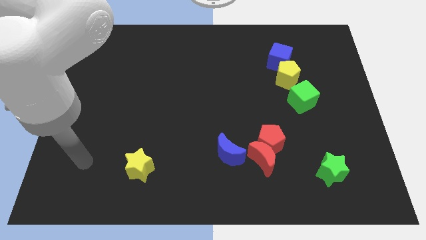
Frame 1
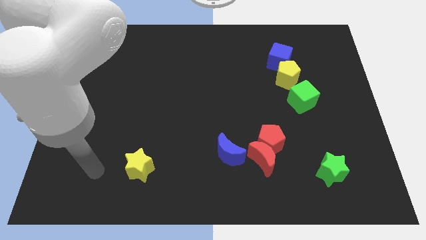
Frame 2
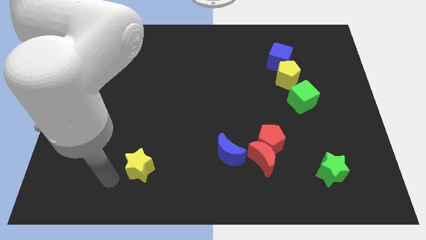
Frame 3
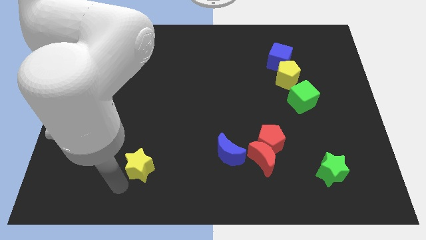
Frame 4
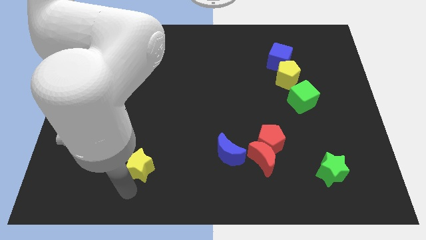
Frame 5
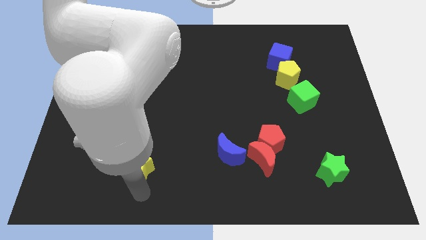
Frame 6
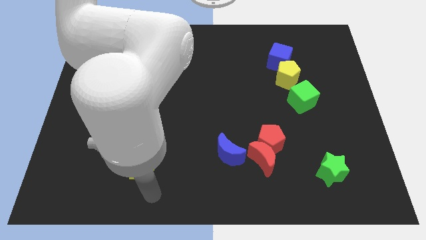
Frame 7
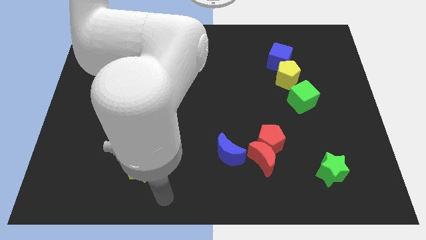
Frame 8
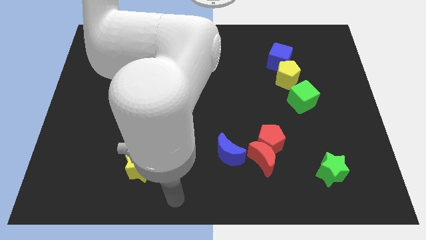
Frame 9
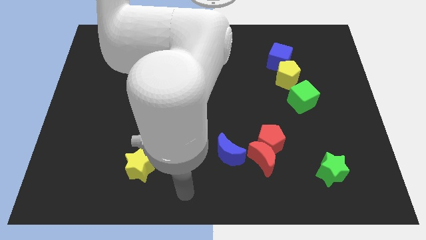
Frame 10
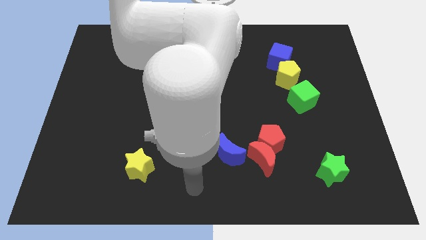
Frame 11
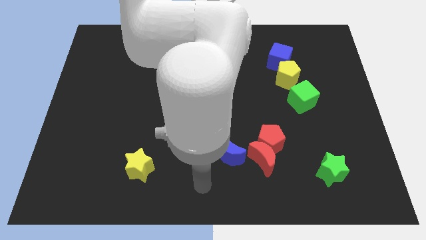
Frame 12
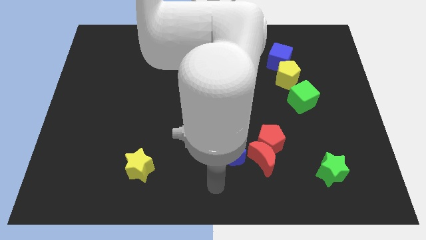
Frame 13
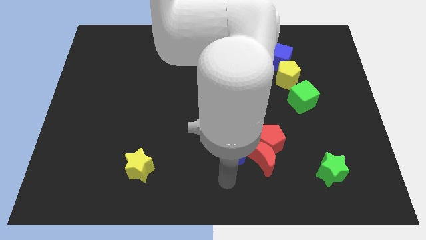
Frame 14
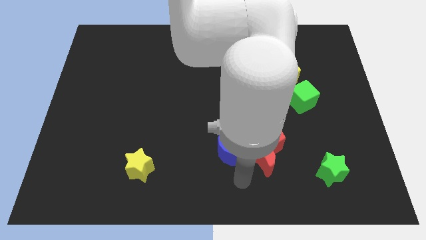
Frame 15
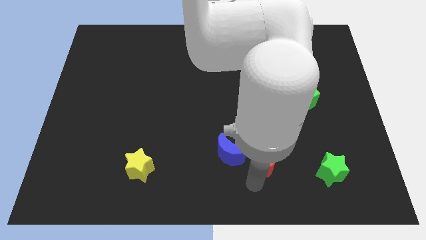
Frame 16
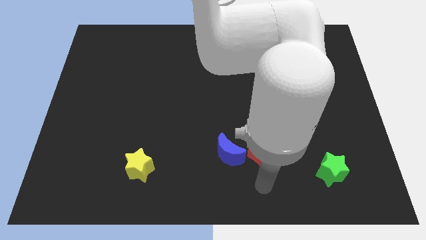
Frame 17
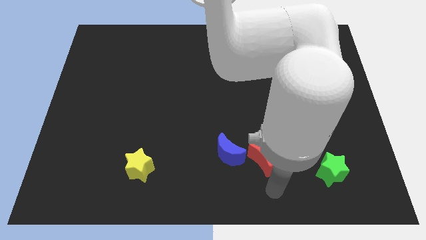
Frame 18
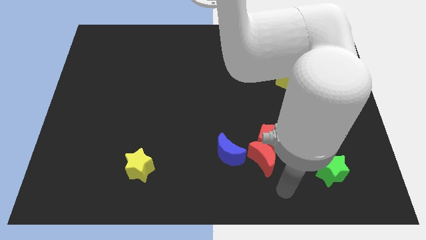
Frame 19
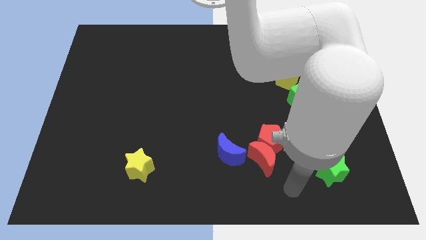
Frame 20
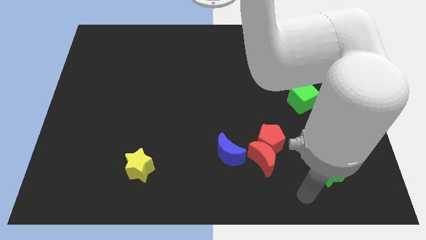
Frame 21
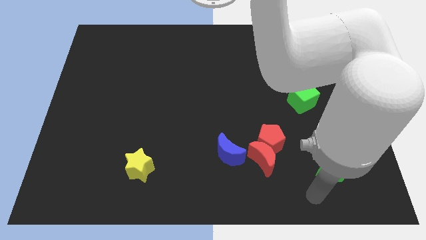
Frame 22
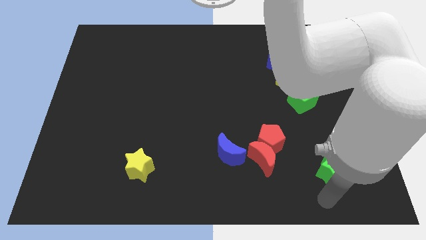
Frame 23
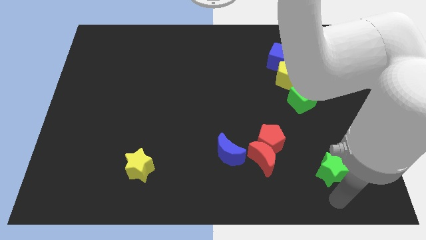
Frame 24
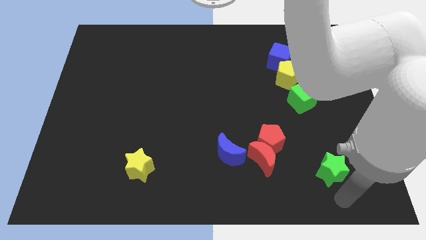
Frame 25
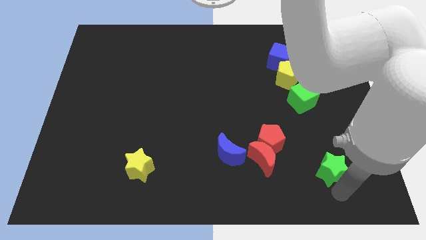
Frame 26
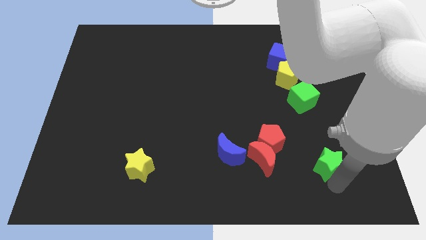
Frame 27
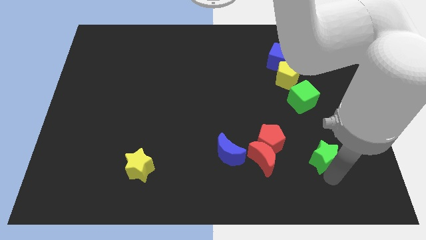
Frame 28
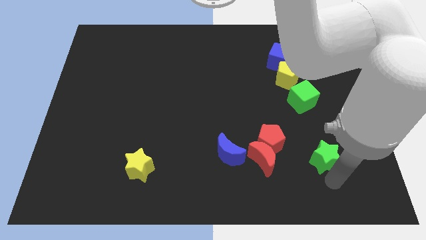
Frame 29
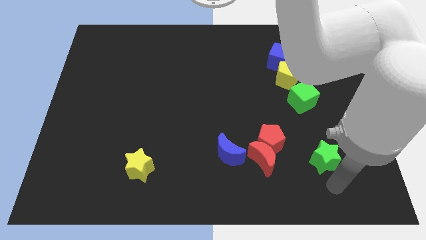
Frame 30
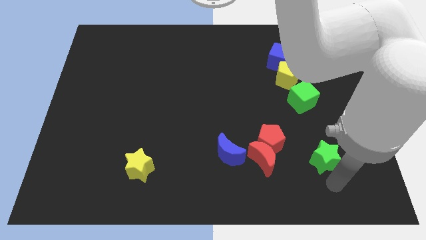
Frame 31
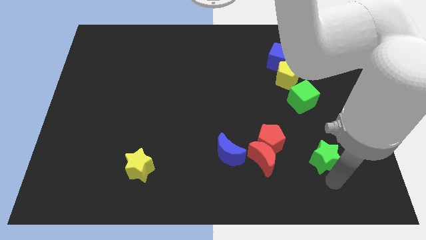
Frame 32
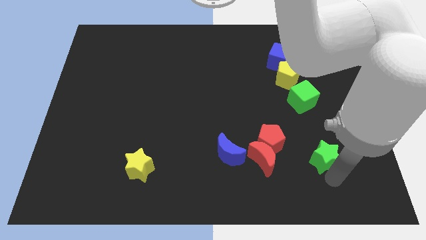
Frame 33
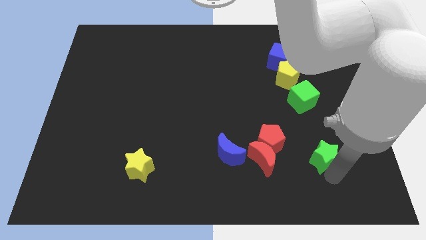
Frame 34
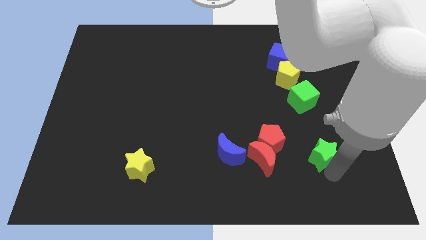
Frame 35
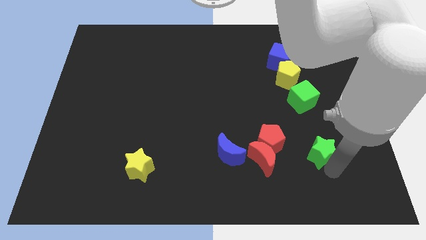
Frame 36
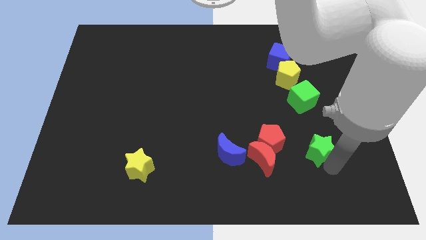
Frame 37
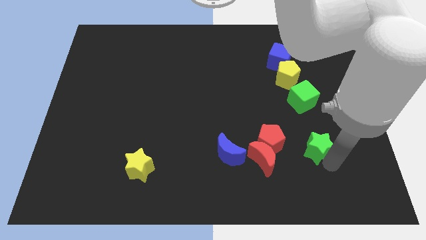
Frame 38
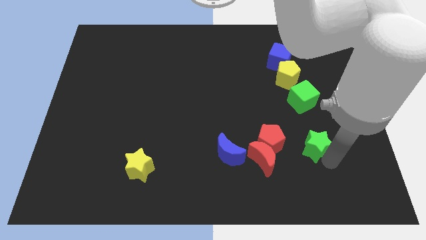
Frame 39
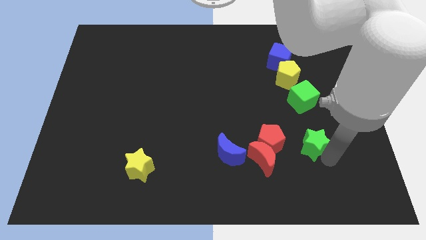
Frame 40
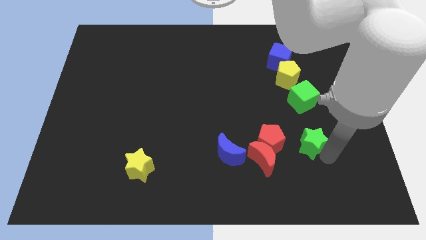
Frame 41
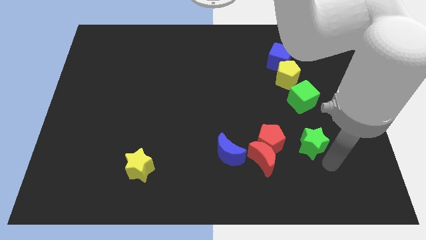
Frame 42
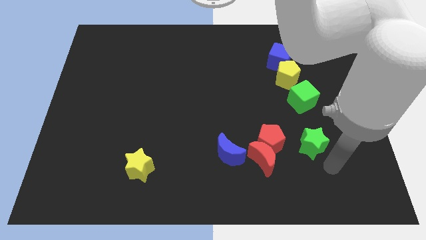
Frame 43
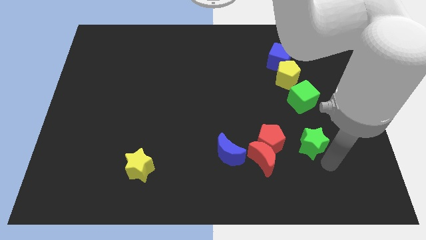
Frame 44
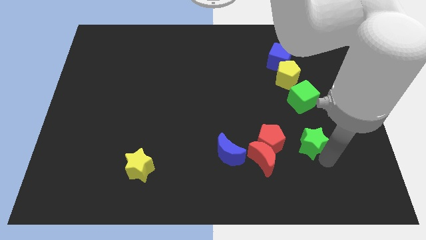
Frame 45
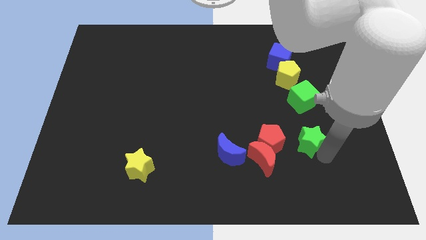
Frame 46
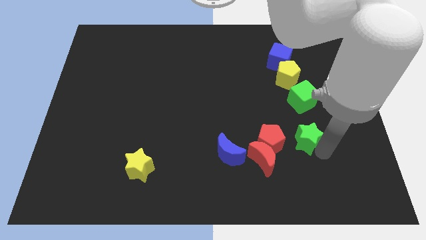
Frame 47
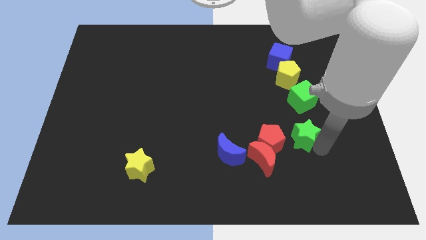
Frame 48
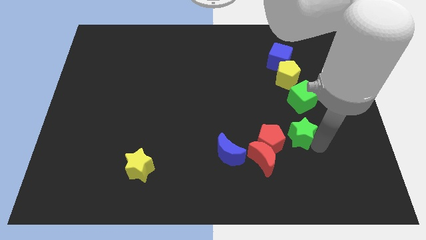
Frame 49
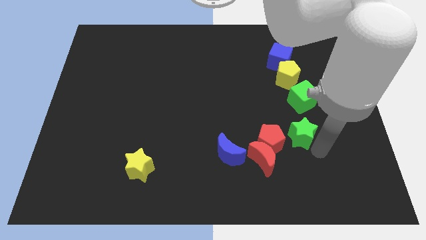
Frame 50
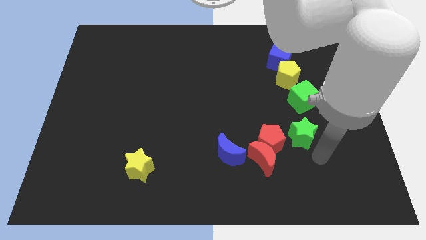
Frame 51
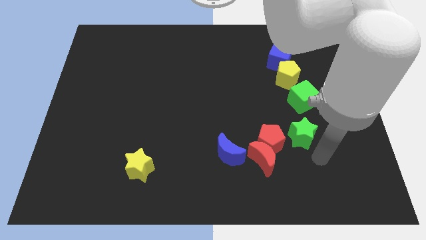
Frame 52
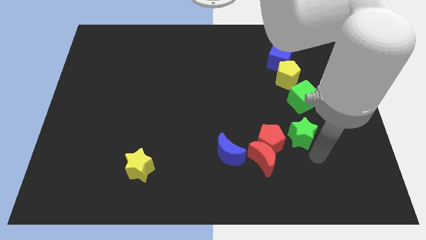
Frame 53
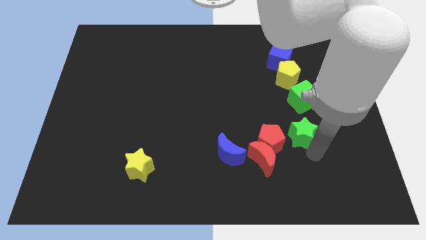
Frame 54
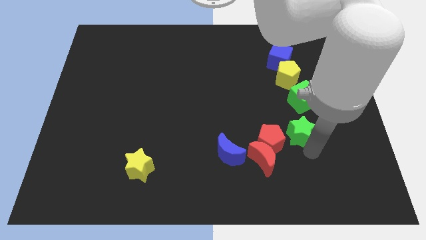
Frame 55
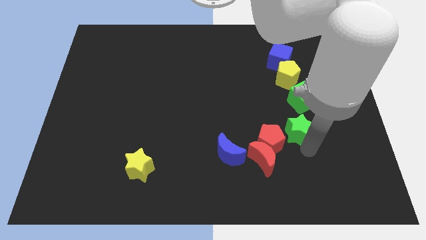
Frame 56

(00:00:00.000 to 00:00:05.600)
push the green star diagonally down and to the left of the green cube
